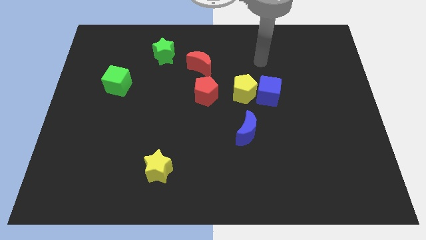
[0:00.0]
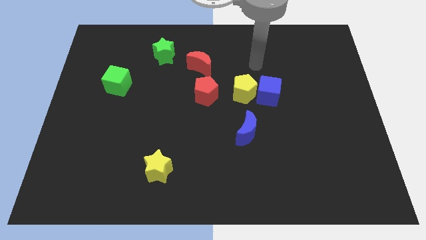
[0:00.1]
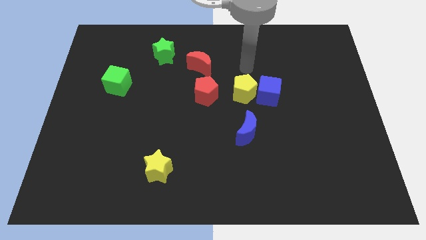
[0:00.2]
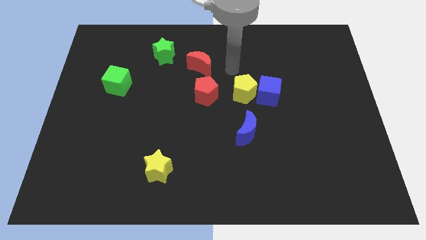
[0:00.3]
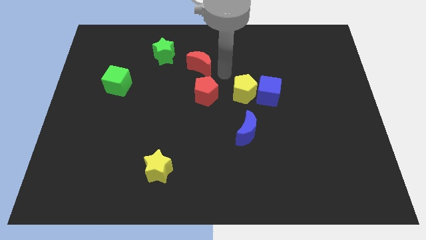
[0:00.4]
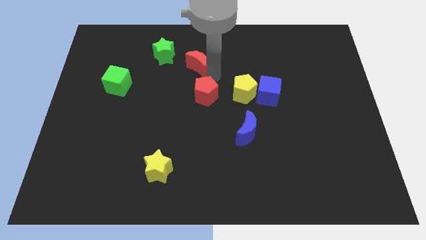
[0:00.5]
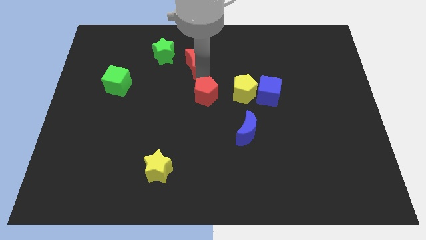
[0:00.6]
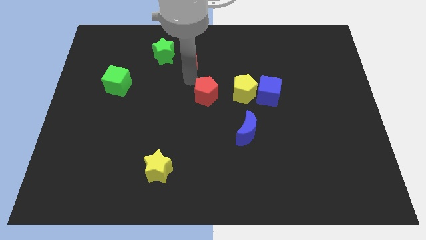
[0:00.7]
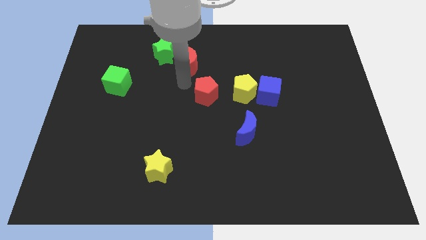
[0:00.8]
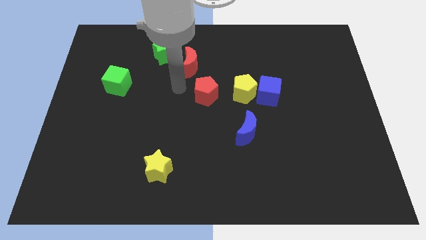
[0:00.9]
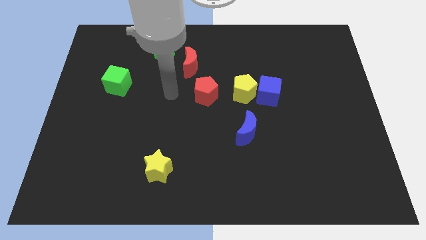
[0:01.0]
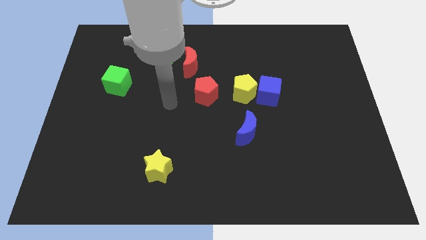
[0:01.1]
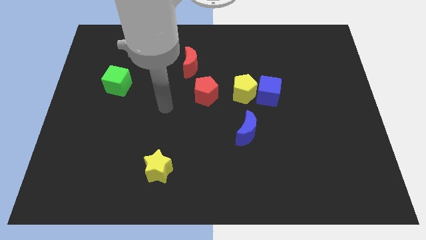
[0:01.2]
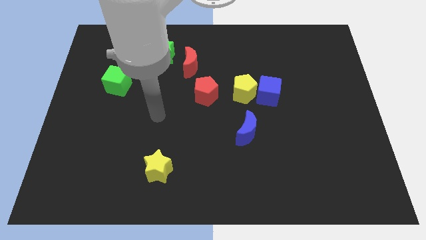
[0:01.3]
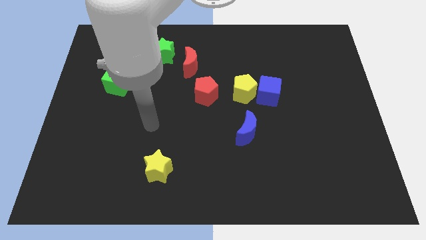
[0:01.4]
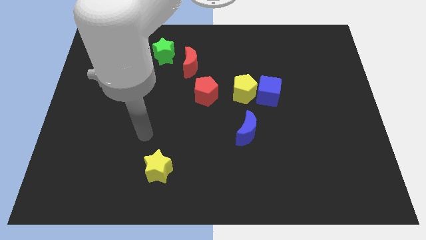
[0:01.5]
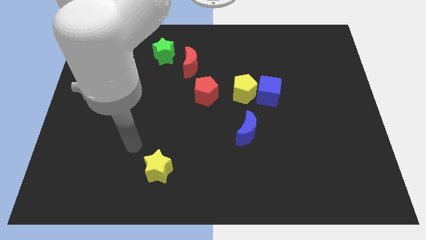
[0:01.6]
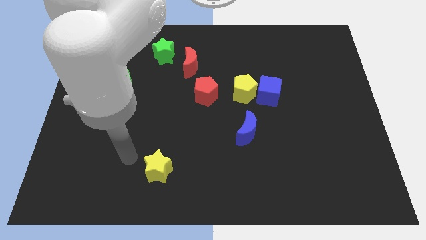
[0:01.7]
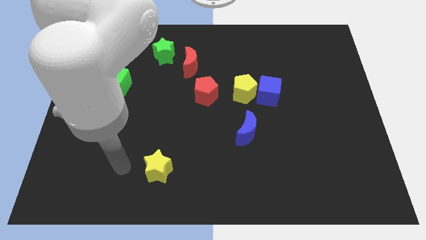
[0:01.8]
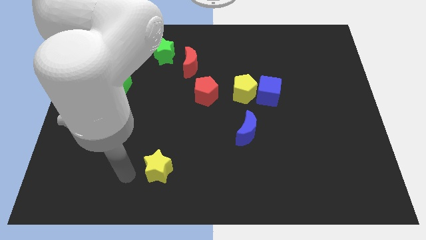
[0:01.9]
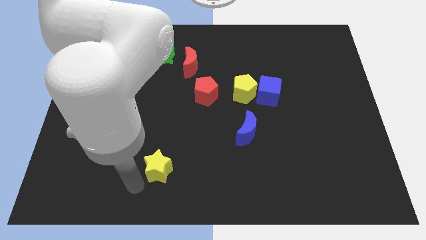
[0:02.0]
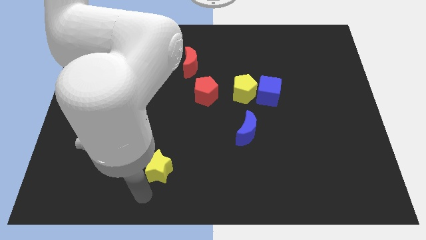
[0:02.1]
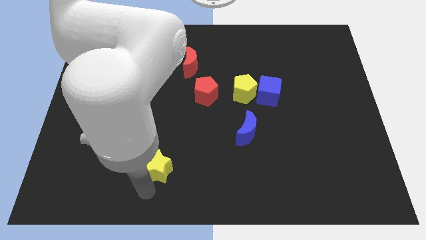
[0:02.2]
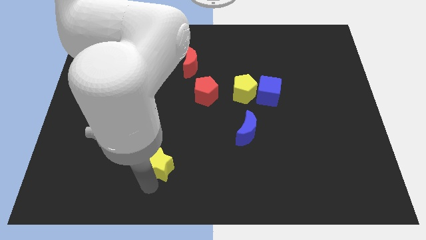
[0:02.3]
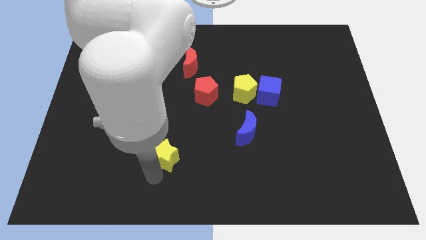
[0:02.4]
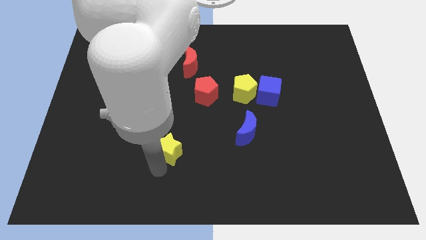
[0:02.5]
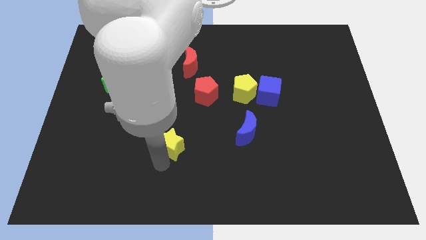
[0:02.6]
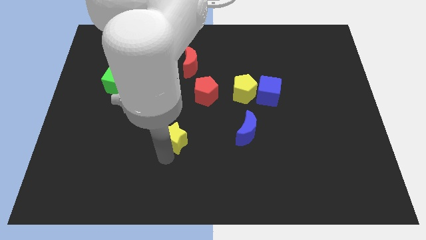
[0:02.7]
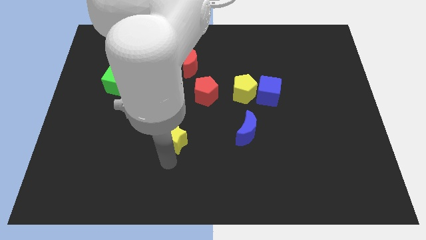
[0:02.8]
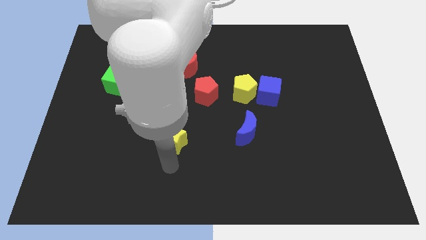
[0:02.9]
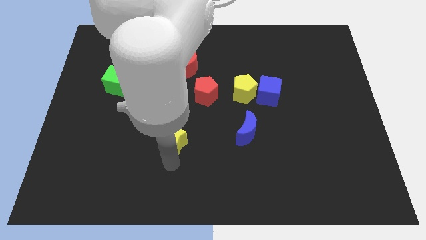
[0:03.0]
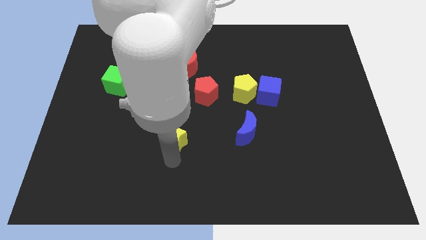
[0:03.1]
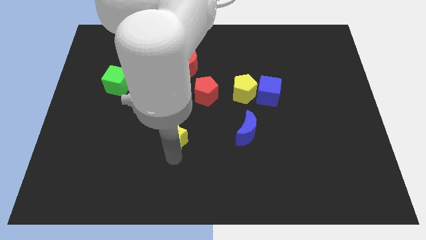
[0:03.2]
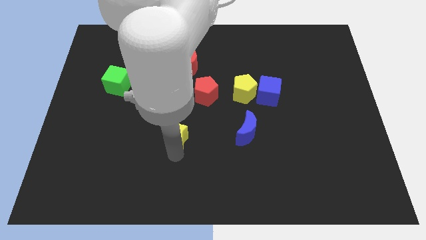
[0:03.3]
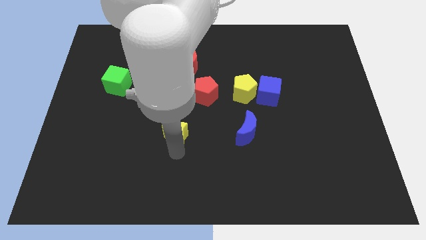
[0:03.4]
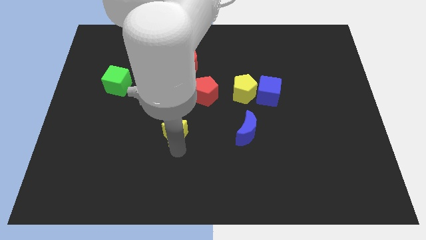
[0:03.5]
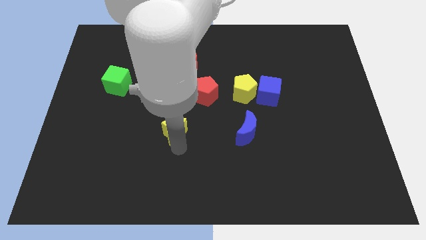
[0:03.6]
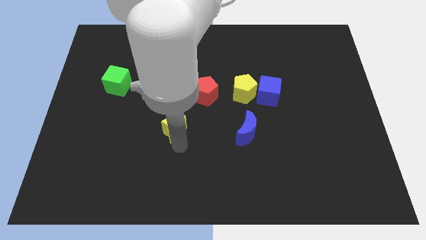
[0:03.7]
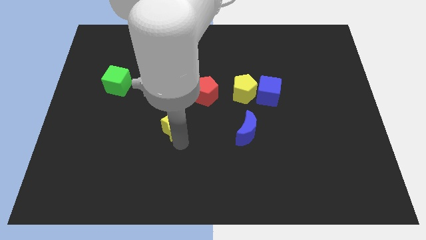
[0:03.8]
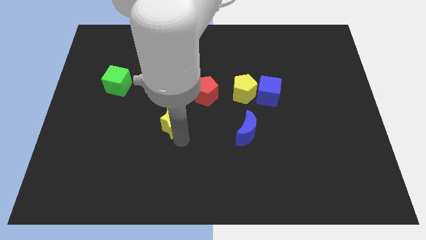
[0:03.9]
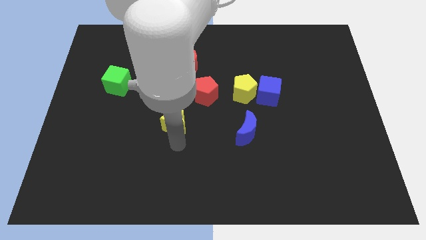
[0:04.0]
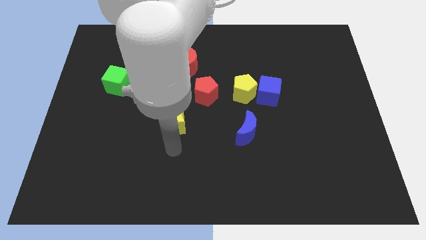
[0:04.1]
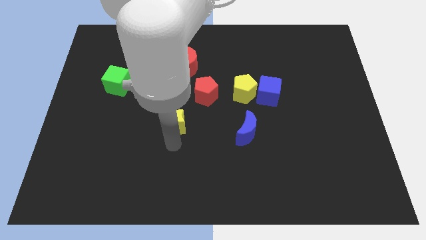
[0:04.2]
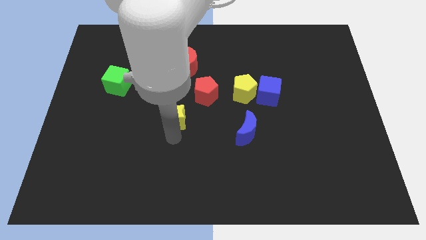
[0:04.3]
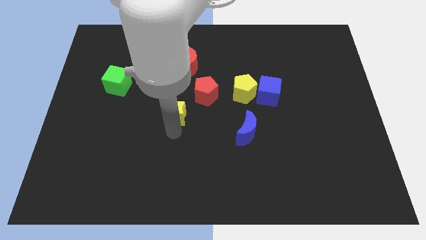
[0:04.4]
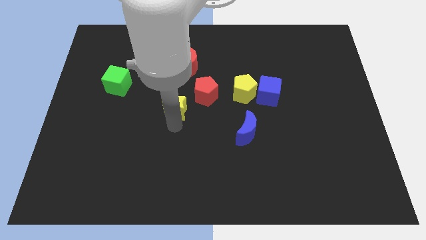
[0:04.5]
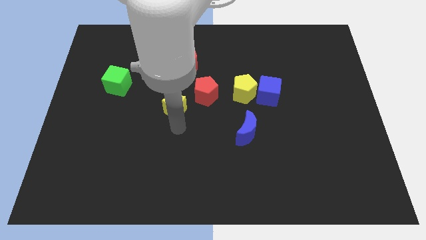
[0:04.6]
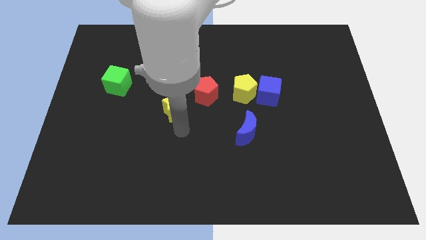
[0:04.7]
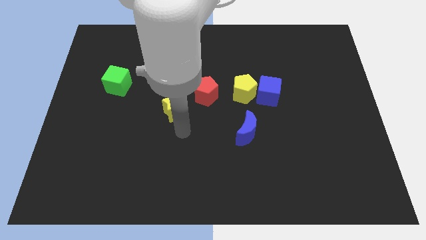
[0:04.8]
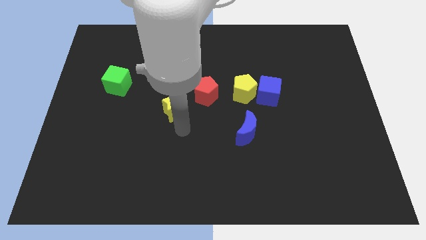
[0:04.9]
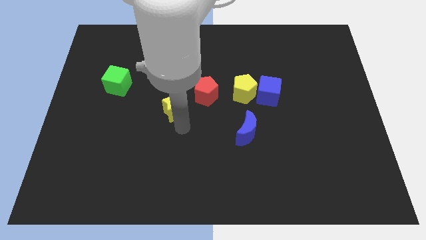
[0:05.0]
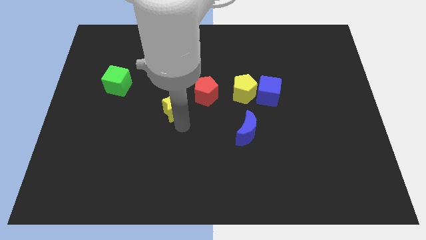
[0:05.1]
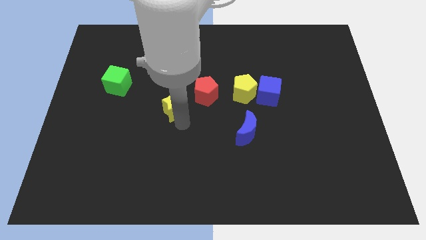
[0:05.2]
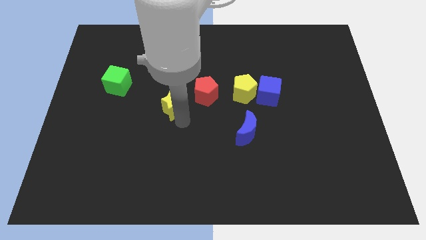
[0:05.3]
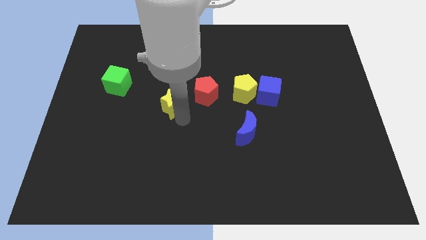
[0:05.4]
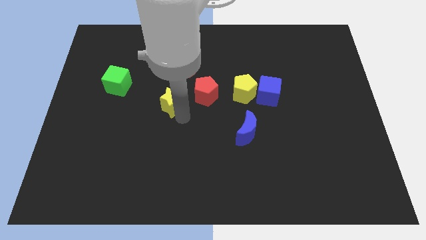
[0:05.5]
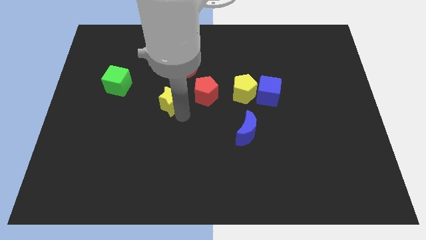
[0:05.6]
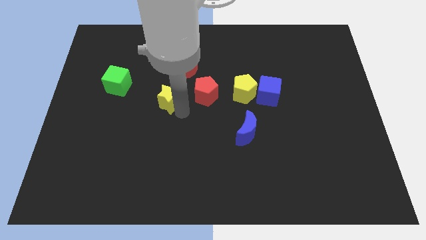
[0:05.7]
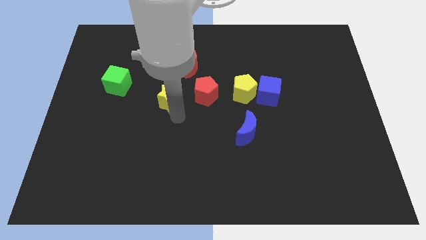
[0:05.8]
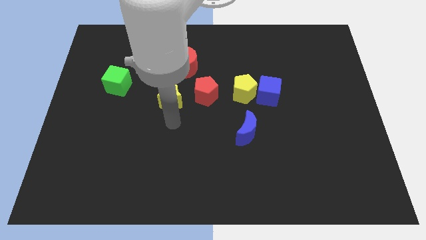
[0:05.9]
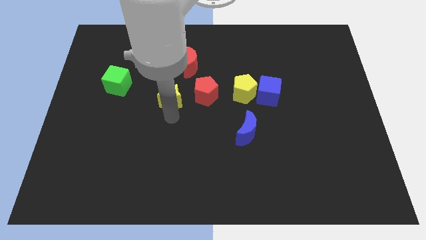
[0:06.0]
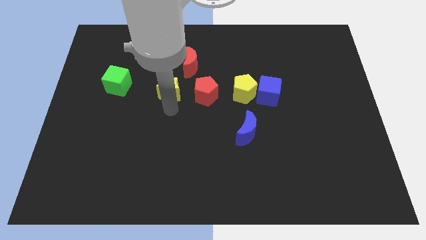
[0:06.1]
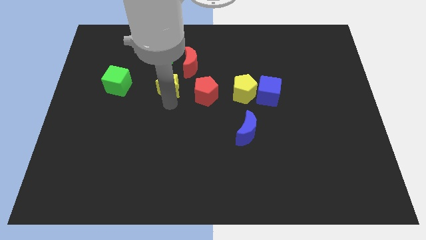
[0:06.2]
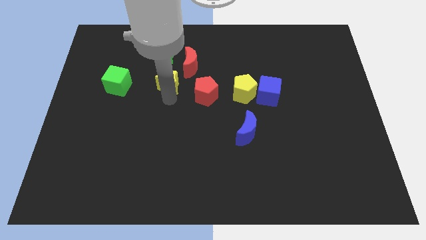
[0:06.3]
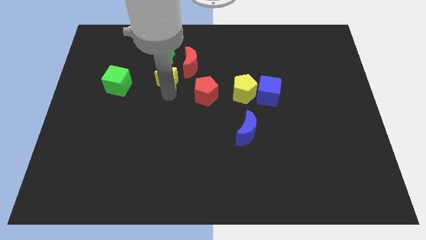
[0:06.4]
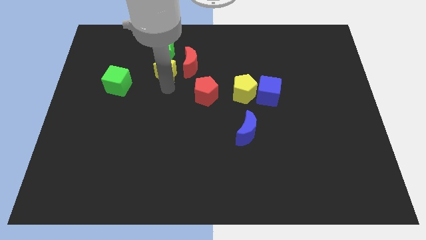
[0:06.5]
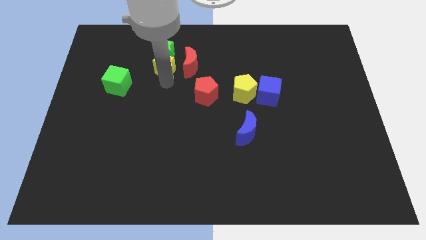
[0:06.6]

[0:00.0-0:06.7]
slide the yellow star next to the green star

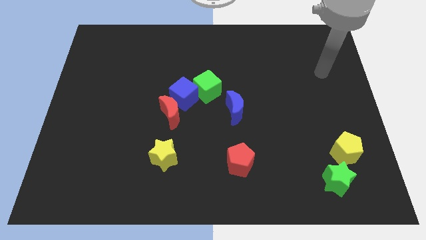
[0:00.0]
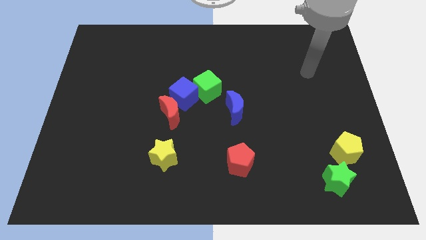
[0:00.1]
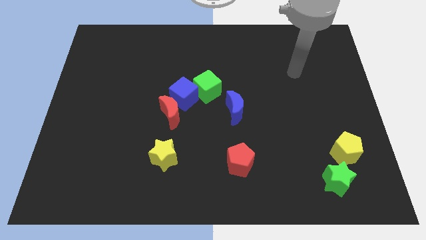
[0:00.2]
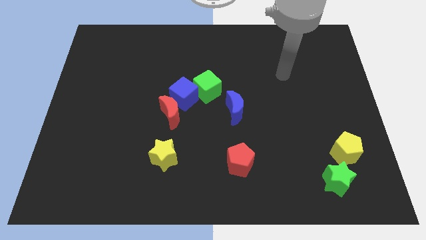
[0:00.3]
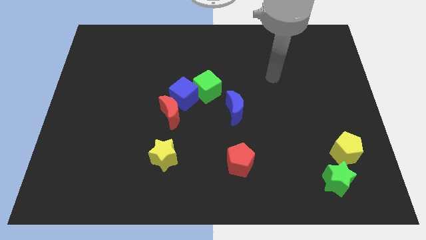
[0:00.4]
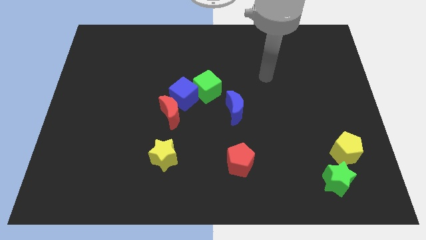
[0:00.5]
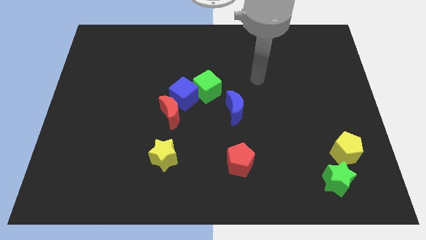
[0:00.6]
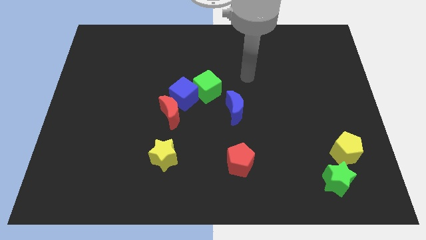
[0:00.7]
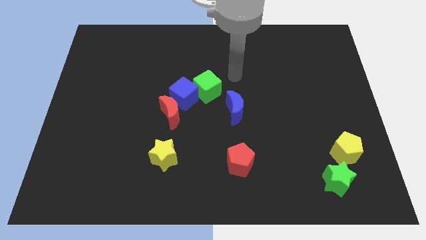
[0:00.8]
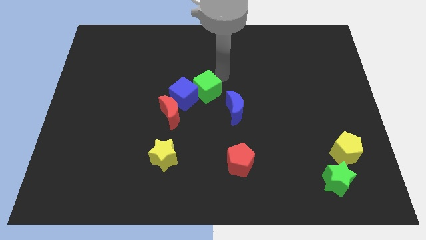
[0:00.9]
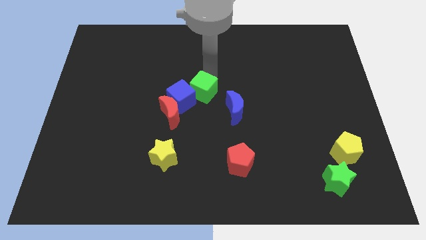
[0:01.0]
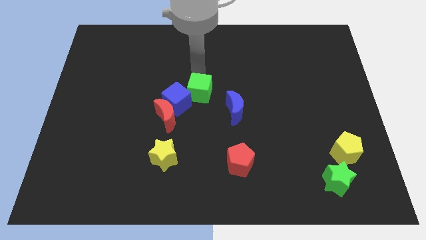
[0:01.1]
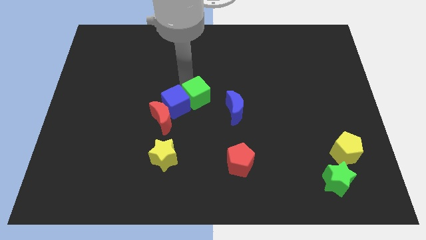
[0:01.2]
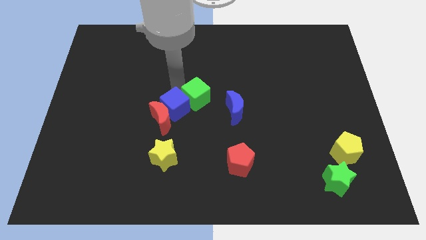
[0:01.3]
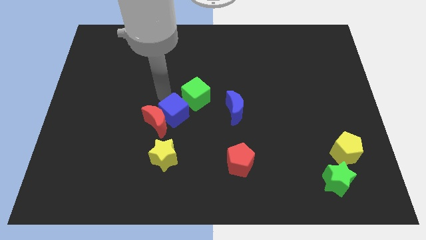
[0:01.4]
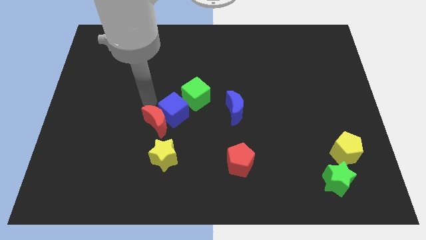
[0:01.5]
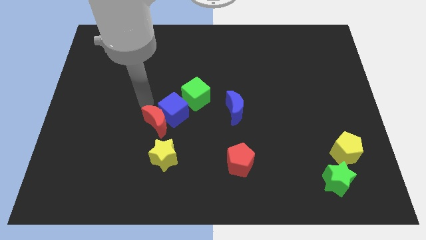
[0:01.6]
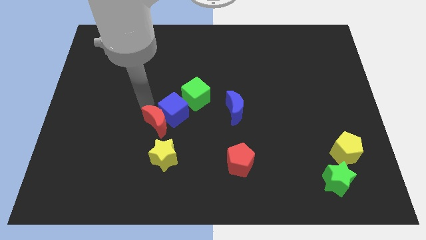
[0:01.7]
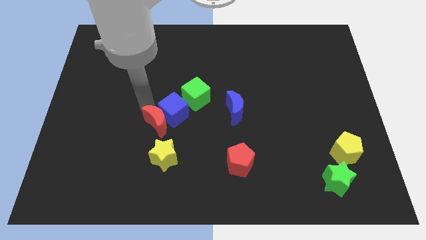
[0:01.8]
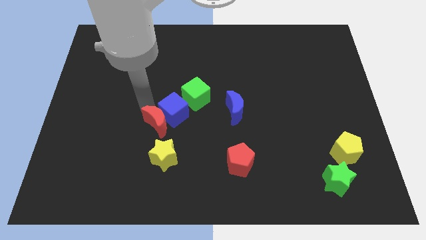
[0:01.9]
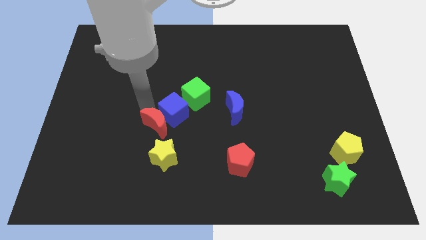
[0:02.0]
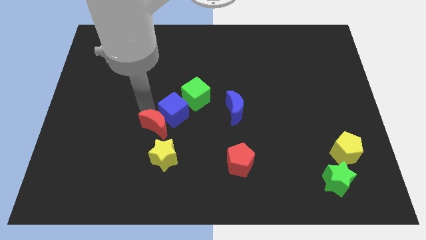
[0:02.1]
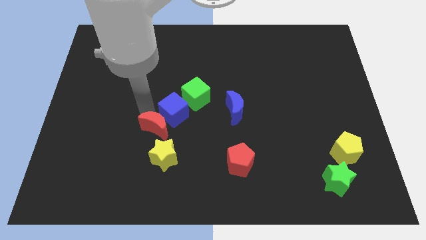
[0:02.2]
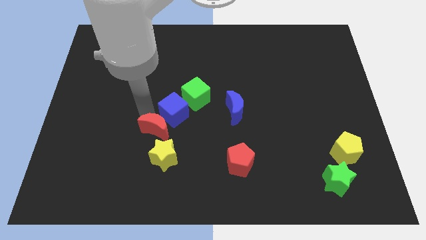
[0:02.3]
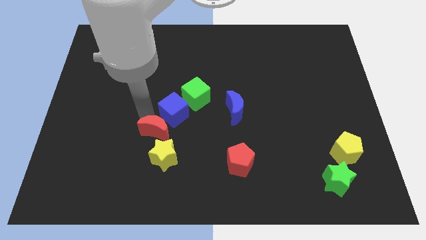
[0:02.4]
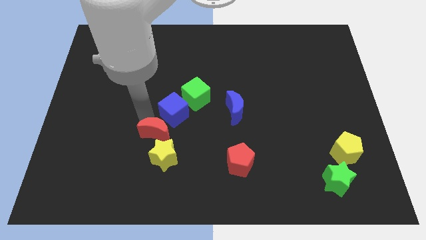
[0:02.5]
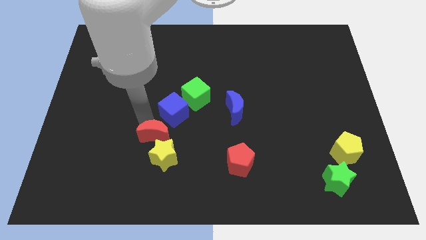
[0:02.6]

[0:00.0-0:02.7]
push the red moon towards the yellow star
